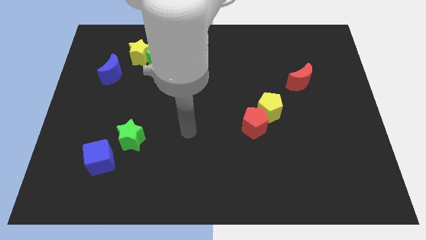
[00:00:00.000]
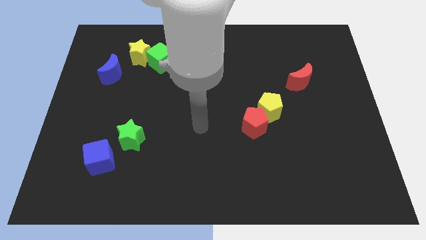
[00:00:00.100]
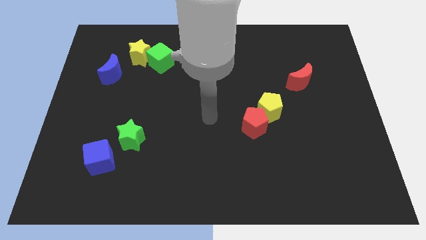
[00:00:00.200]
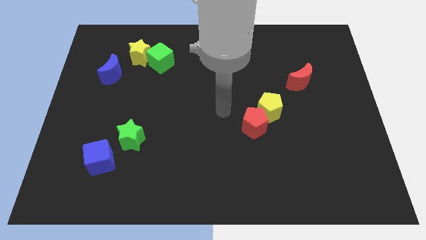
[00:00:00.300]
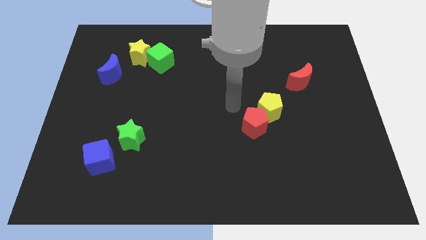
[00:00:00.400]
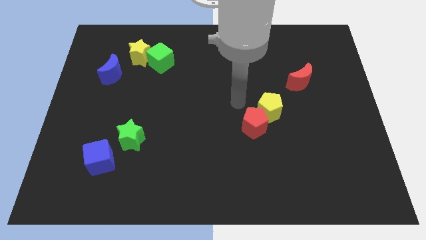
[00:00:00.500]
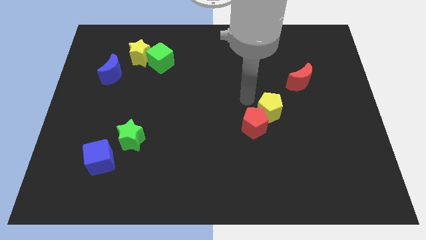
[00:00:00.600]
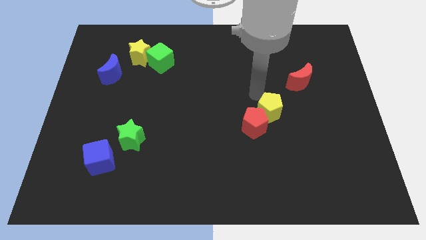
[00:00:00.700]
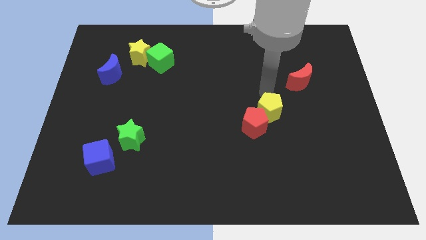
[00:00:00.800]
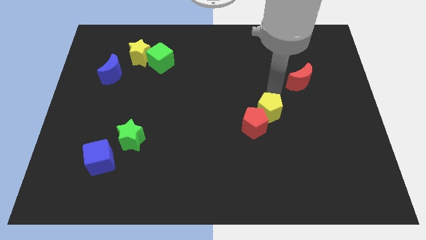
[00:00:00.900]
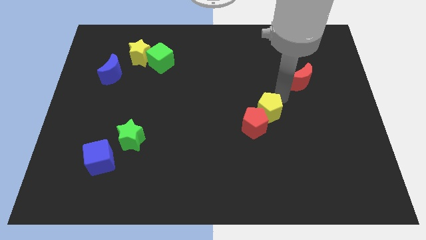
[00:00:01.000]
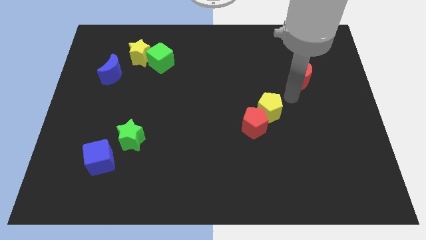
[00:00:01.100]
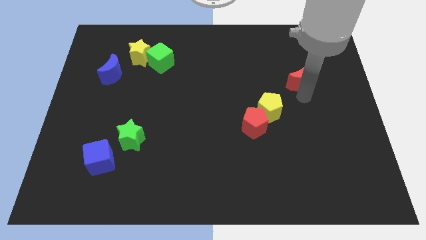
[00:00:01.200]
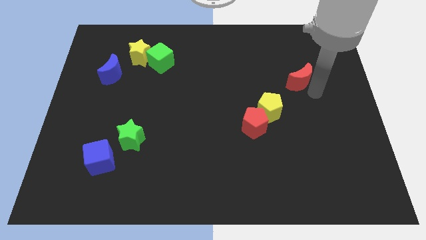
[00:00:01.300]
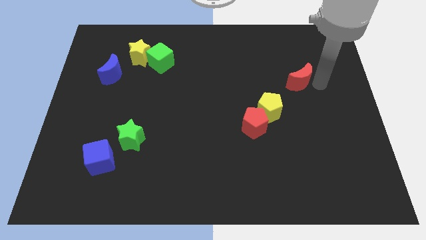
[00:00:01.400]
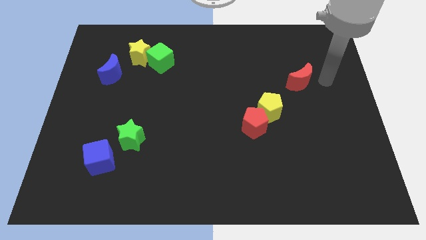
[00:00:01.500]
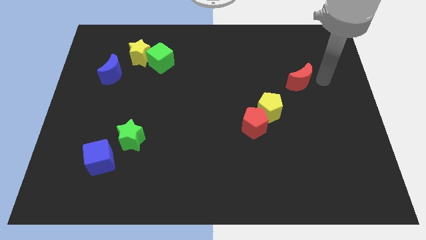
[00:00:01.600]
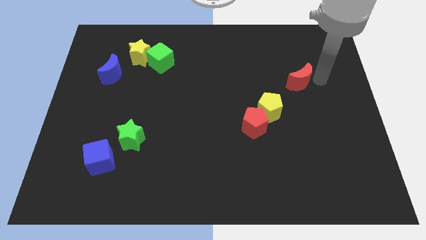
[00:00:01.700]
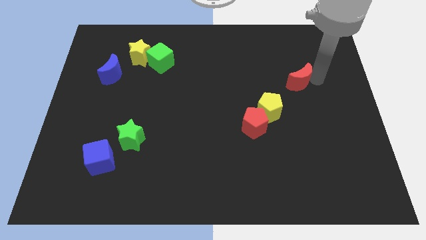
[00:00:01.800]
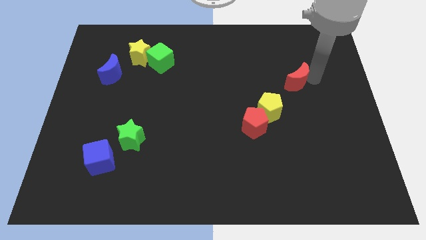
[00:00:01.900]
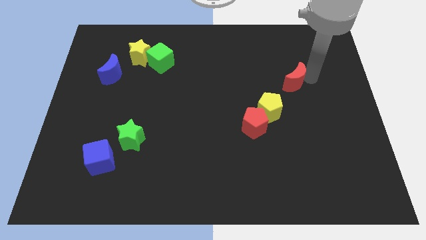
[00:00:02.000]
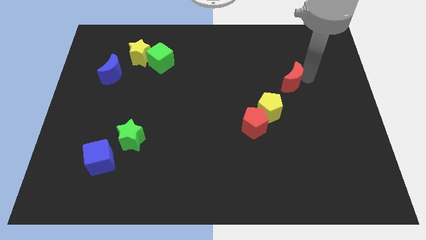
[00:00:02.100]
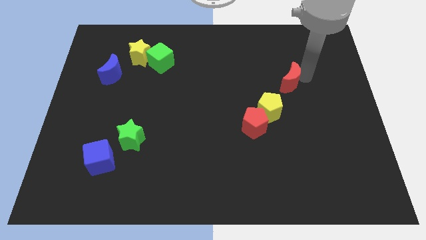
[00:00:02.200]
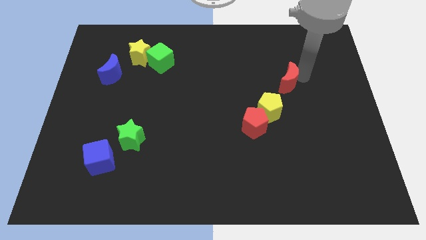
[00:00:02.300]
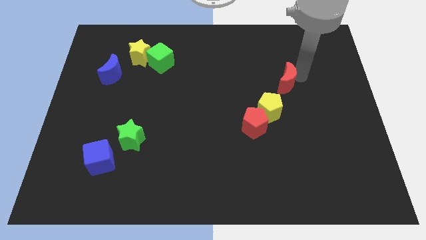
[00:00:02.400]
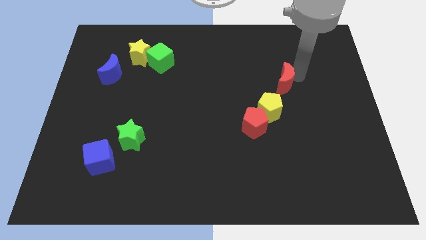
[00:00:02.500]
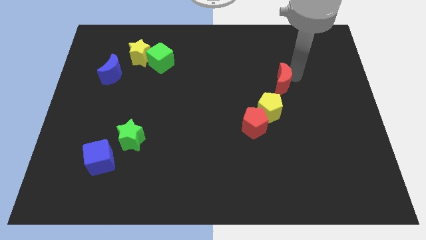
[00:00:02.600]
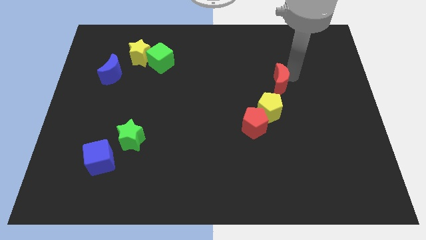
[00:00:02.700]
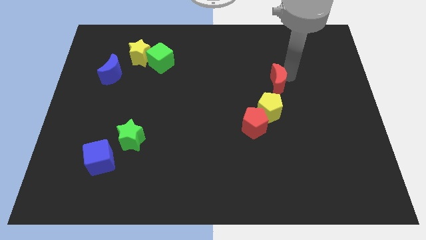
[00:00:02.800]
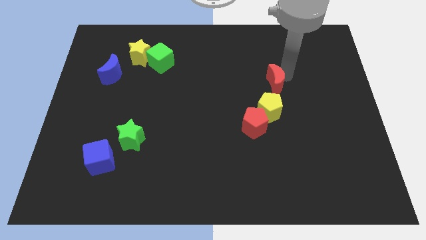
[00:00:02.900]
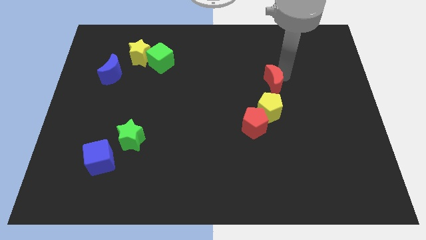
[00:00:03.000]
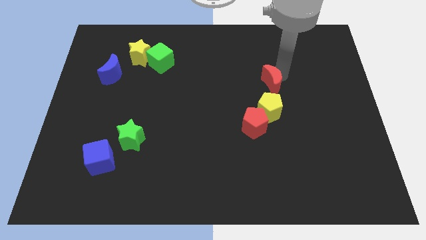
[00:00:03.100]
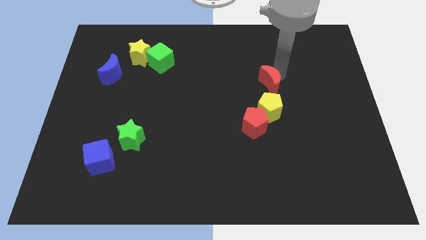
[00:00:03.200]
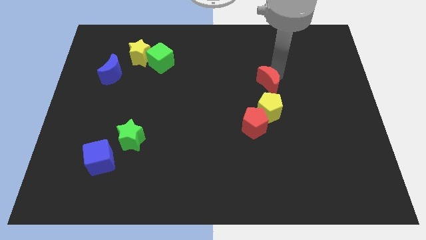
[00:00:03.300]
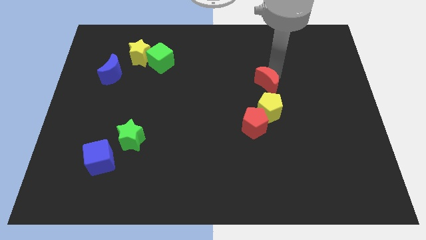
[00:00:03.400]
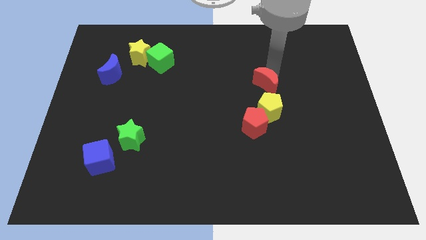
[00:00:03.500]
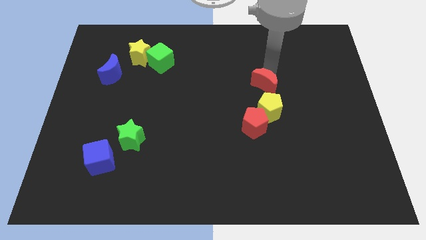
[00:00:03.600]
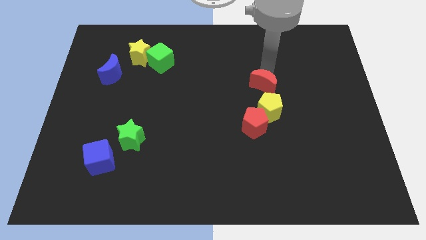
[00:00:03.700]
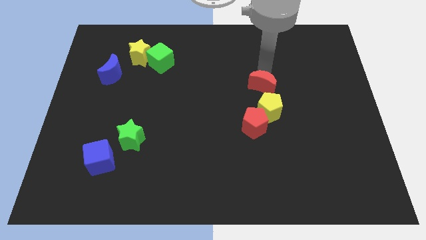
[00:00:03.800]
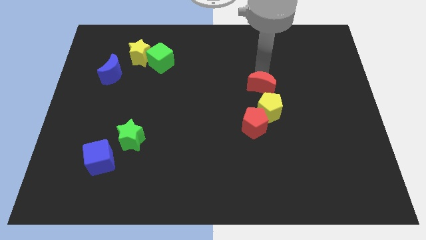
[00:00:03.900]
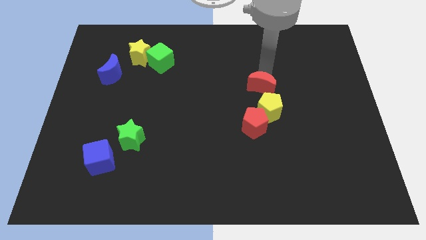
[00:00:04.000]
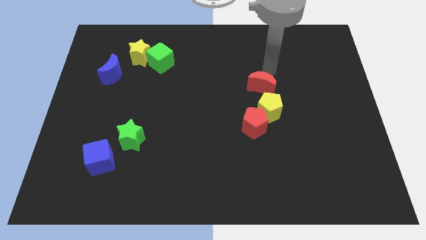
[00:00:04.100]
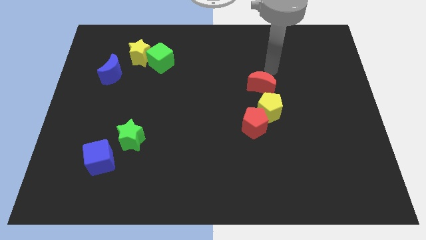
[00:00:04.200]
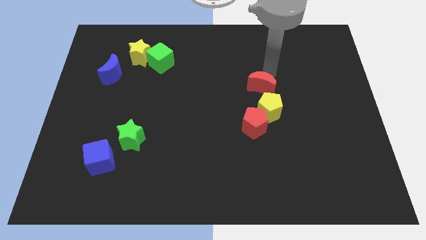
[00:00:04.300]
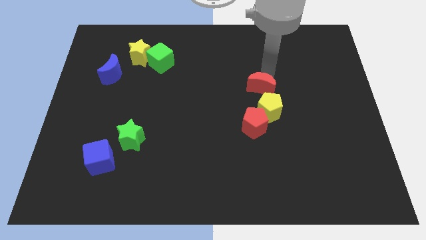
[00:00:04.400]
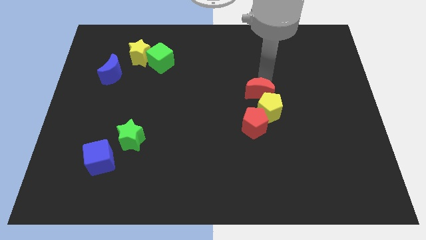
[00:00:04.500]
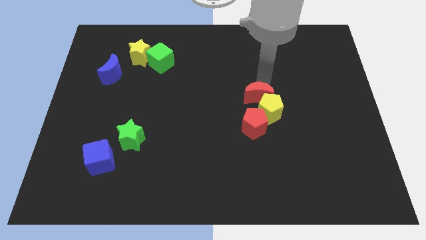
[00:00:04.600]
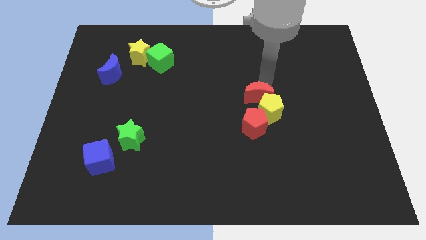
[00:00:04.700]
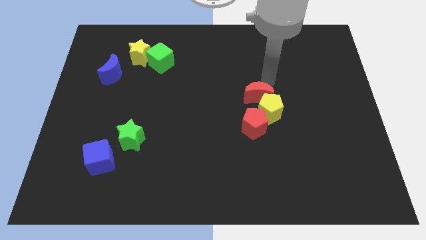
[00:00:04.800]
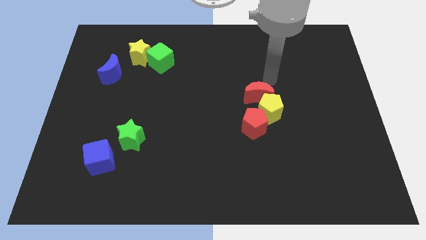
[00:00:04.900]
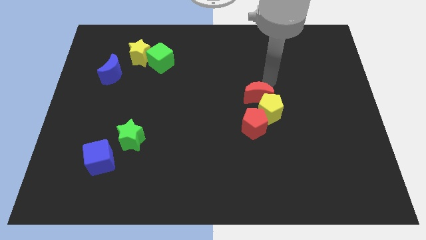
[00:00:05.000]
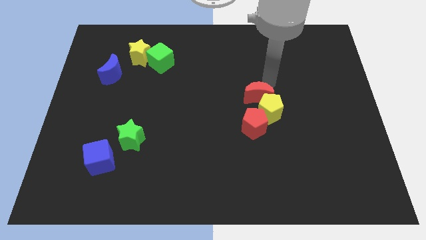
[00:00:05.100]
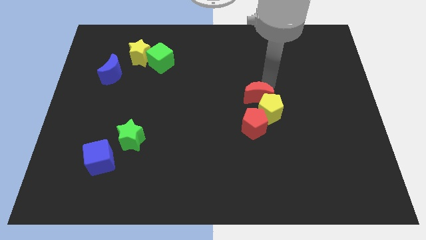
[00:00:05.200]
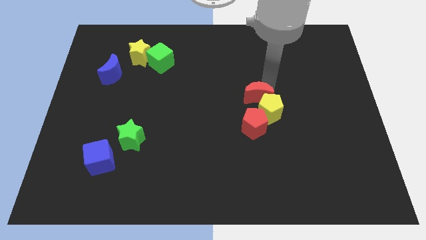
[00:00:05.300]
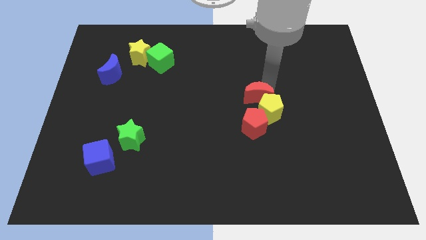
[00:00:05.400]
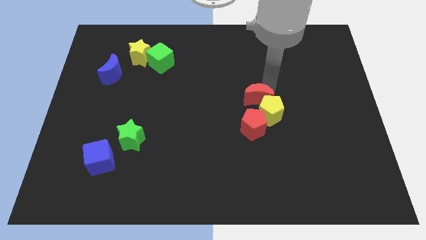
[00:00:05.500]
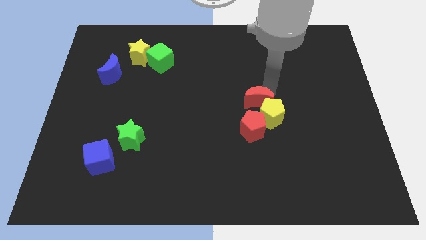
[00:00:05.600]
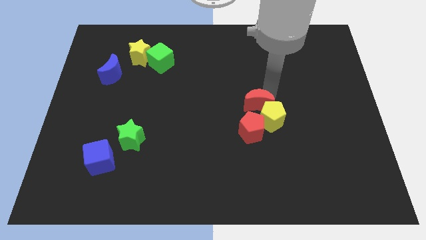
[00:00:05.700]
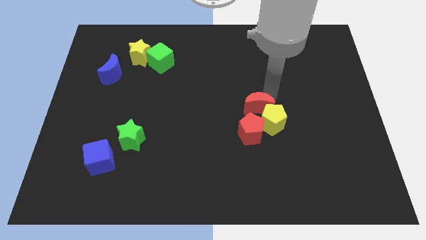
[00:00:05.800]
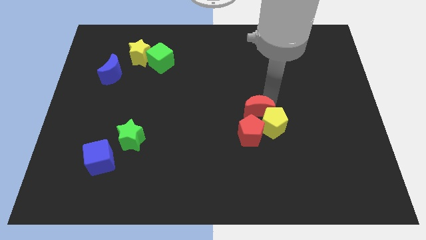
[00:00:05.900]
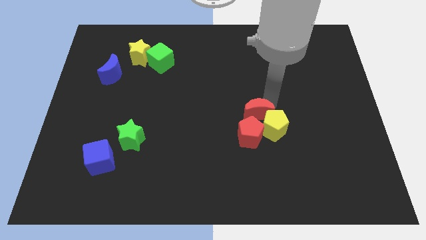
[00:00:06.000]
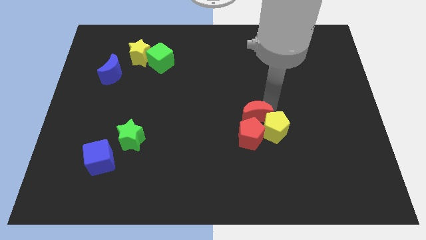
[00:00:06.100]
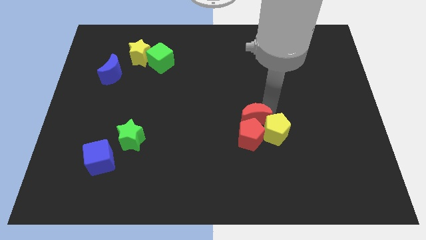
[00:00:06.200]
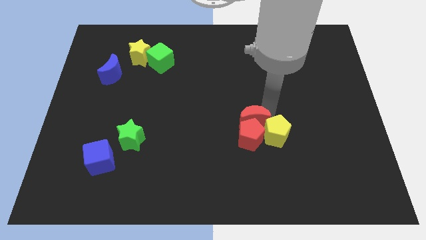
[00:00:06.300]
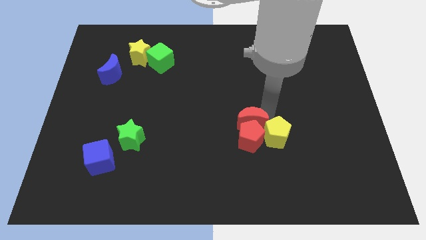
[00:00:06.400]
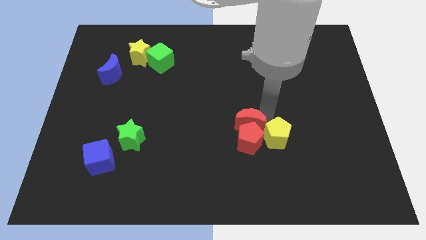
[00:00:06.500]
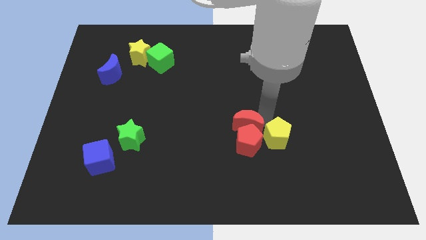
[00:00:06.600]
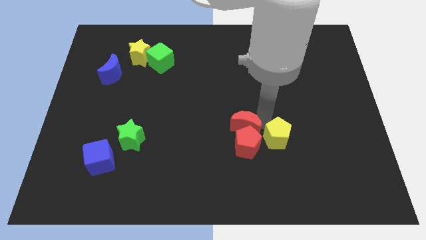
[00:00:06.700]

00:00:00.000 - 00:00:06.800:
push the red moon down and to the left diagonally

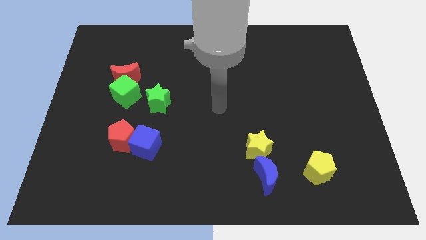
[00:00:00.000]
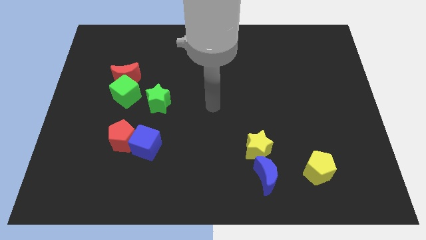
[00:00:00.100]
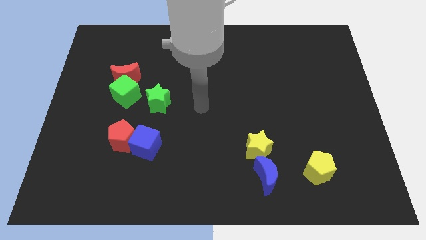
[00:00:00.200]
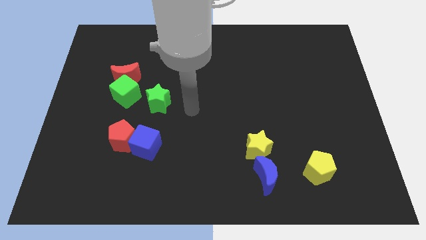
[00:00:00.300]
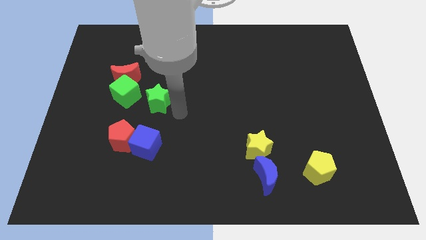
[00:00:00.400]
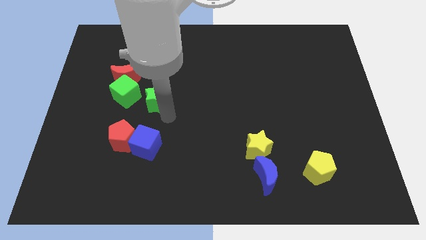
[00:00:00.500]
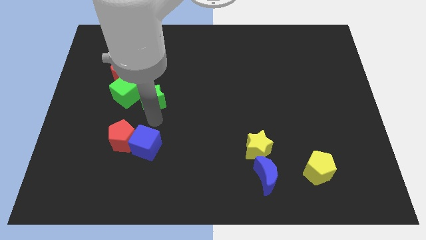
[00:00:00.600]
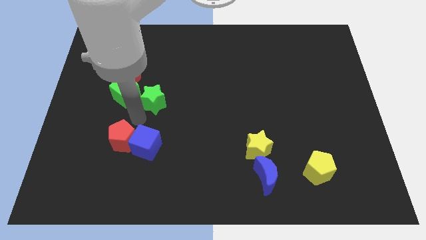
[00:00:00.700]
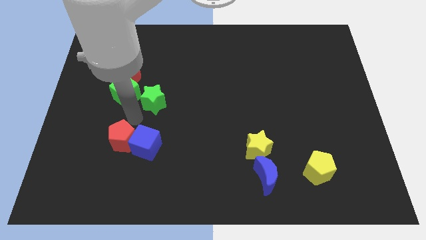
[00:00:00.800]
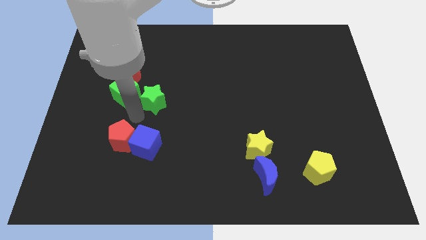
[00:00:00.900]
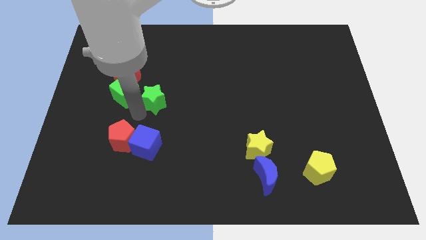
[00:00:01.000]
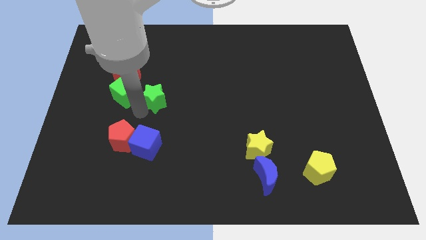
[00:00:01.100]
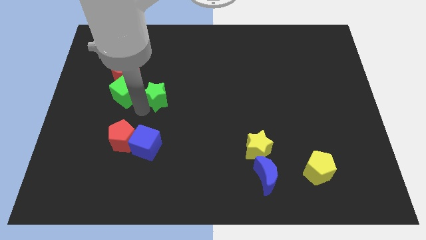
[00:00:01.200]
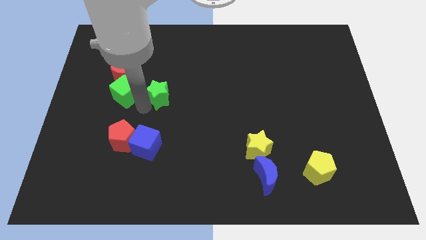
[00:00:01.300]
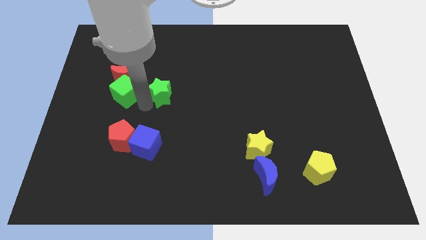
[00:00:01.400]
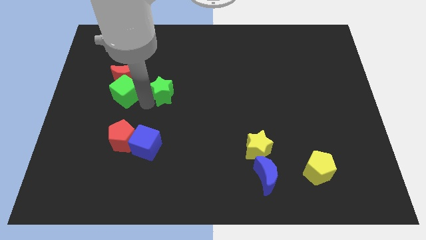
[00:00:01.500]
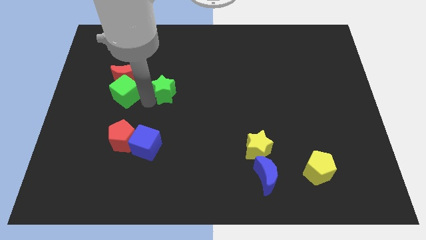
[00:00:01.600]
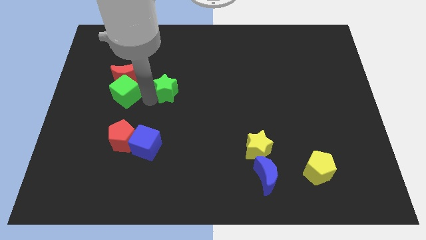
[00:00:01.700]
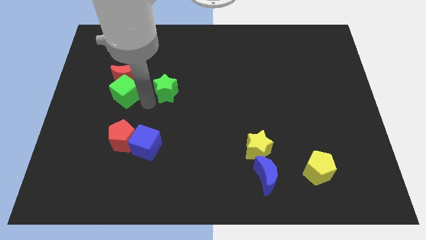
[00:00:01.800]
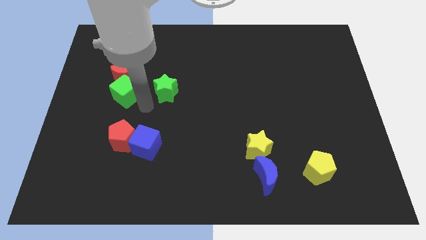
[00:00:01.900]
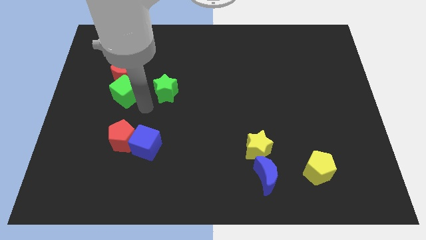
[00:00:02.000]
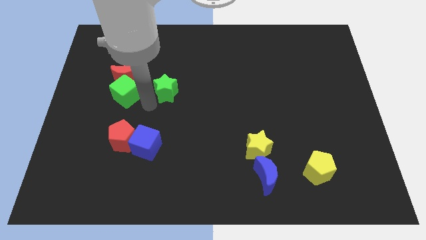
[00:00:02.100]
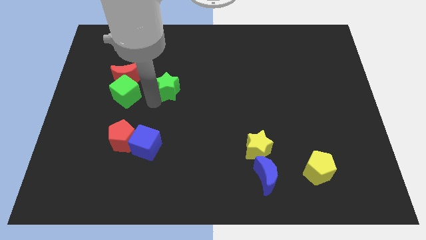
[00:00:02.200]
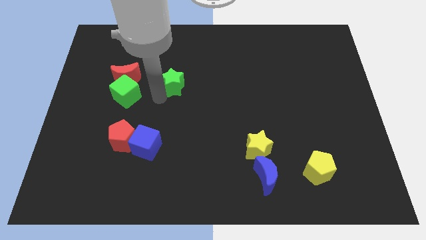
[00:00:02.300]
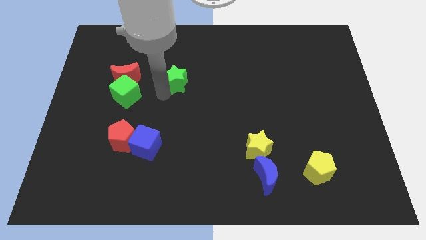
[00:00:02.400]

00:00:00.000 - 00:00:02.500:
move the green star a little bit diagonally upwards and to the right
